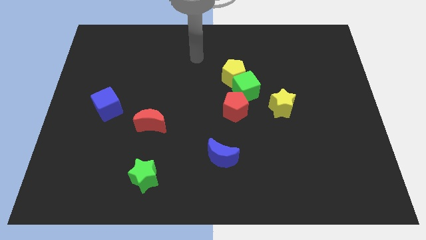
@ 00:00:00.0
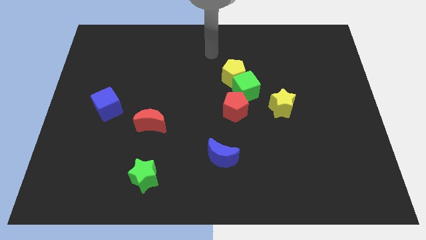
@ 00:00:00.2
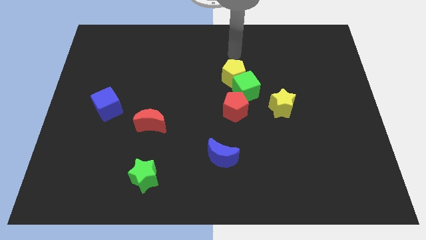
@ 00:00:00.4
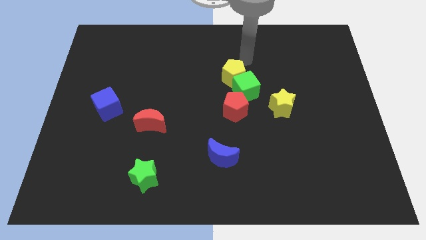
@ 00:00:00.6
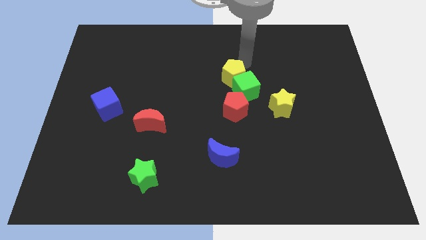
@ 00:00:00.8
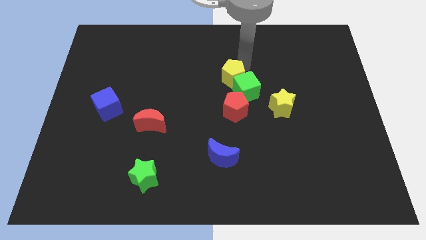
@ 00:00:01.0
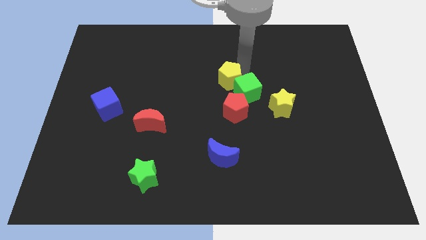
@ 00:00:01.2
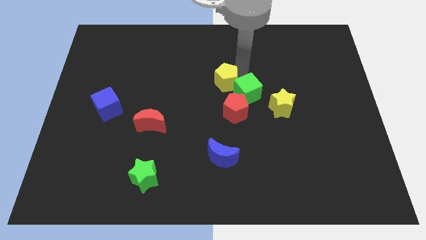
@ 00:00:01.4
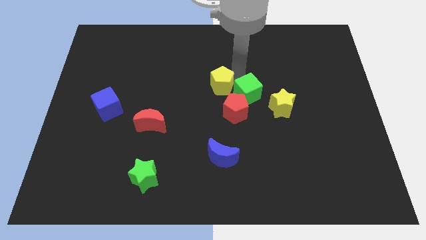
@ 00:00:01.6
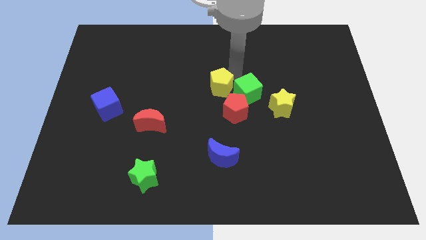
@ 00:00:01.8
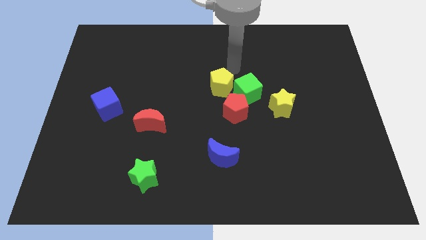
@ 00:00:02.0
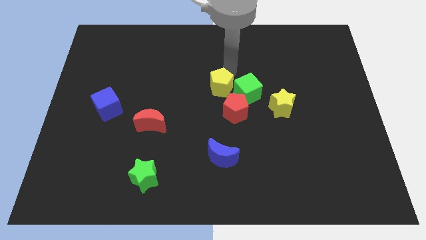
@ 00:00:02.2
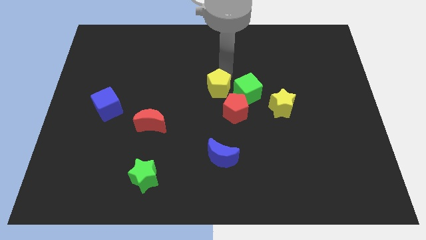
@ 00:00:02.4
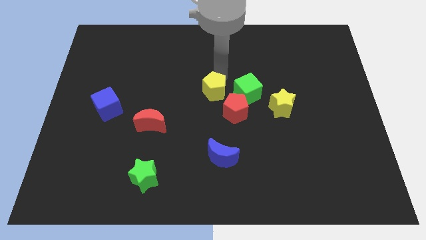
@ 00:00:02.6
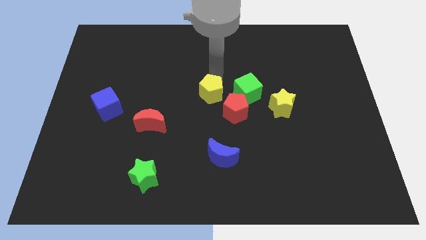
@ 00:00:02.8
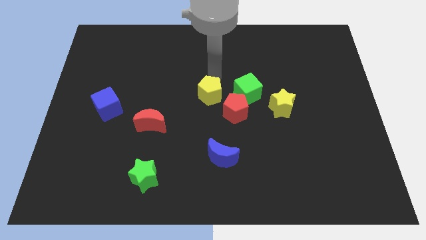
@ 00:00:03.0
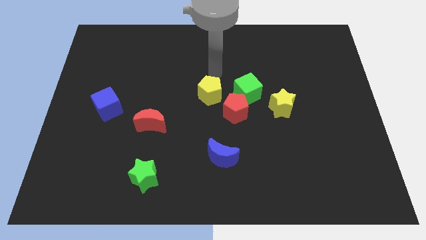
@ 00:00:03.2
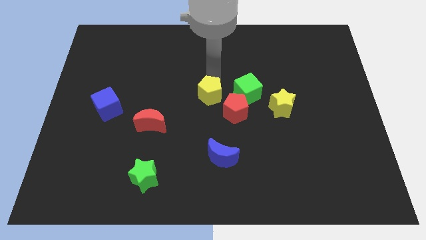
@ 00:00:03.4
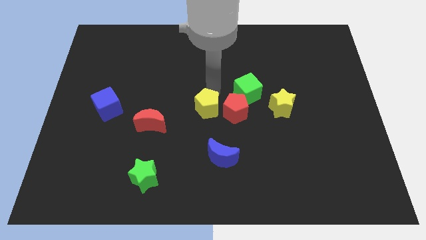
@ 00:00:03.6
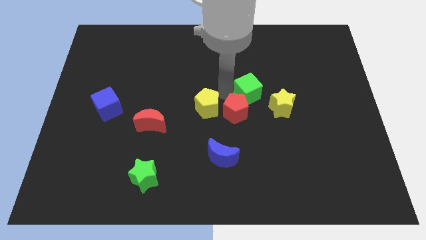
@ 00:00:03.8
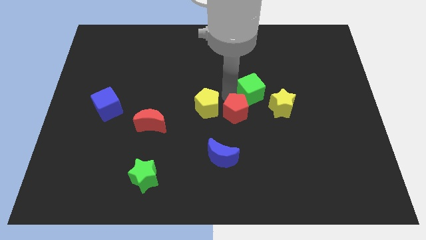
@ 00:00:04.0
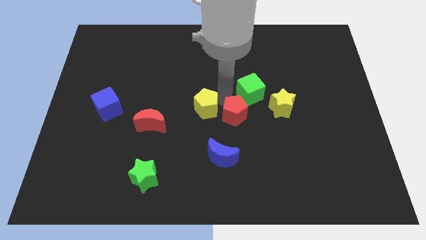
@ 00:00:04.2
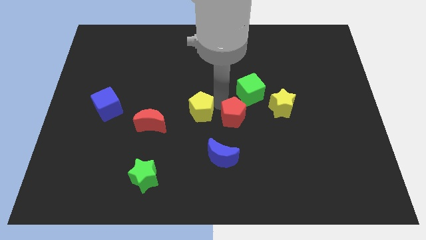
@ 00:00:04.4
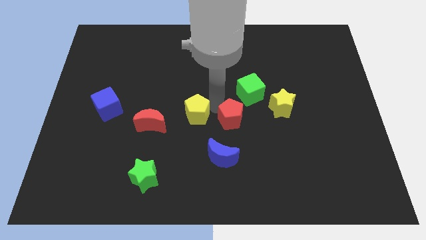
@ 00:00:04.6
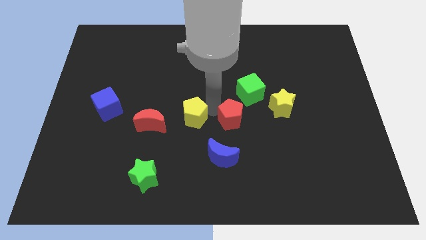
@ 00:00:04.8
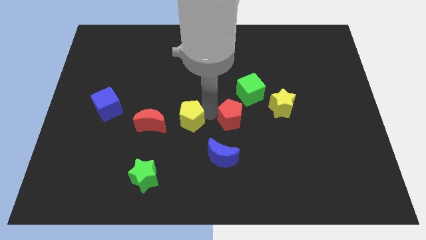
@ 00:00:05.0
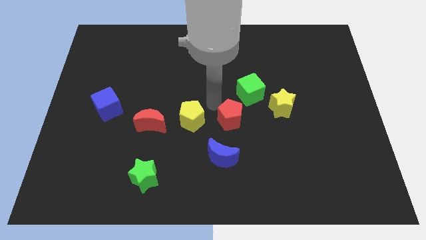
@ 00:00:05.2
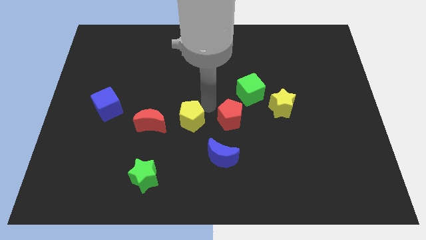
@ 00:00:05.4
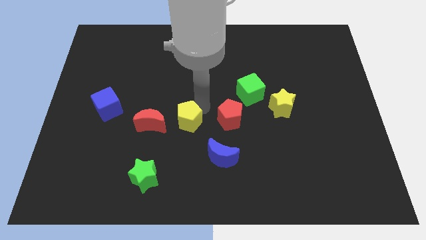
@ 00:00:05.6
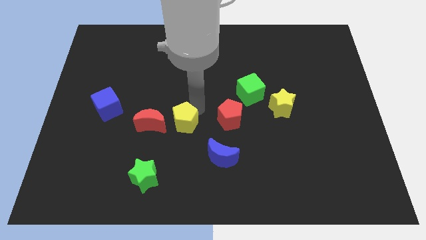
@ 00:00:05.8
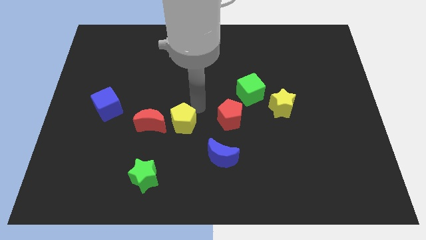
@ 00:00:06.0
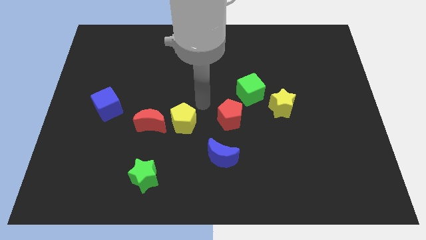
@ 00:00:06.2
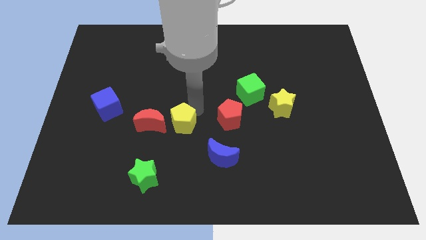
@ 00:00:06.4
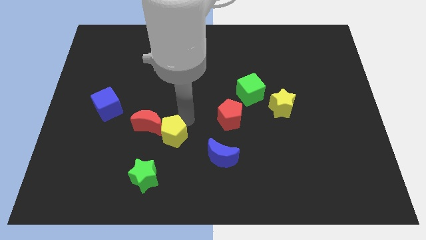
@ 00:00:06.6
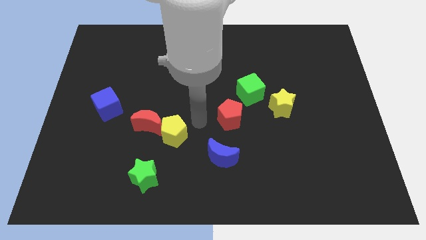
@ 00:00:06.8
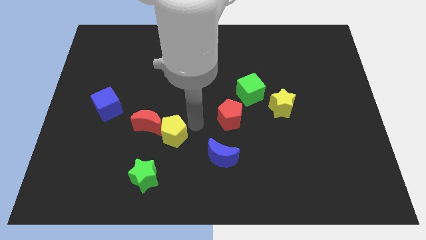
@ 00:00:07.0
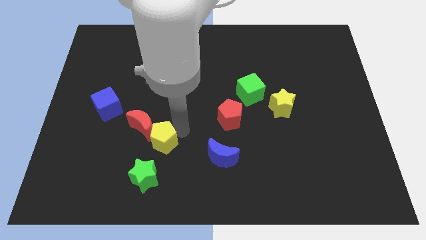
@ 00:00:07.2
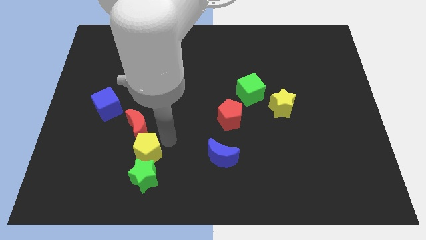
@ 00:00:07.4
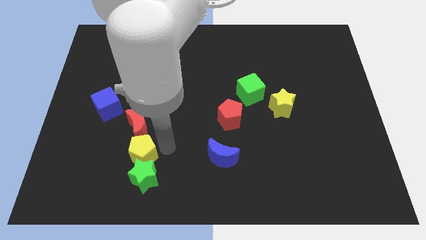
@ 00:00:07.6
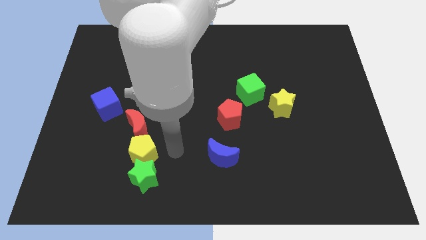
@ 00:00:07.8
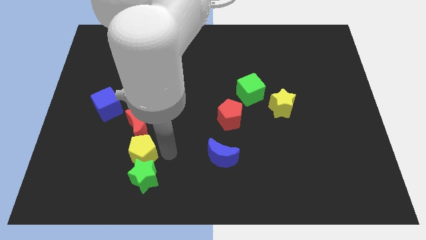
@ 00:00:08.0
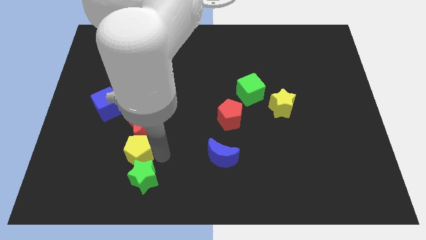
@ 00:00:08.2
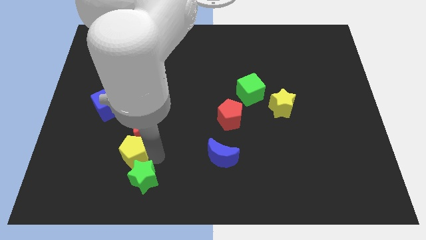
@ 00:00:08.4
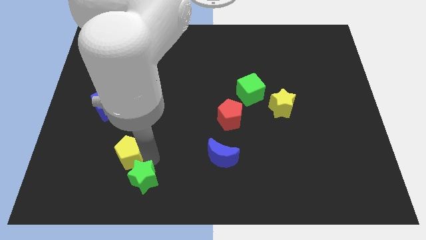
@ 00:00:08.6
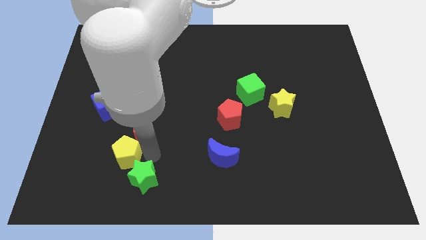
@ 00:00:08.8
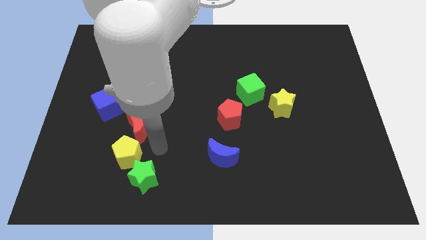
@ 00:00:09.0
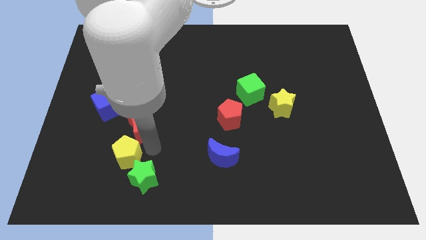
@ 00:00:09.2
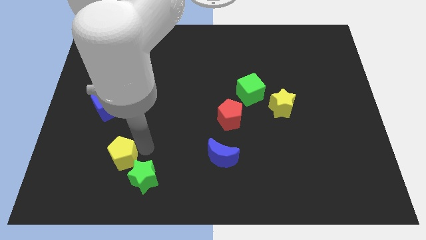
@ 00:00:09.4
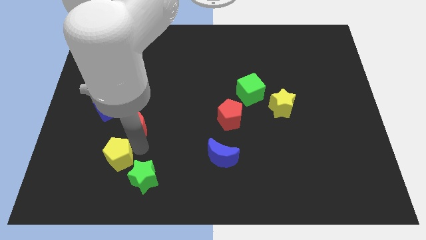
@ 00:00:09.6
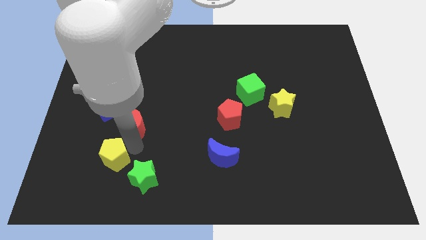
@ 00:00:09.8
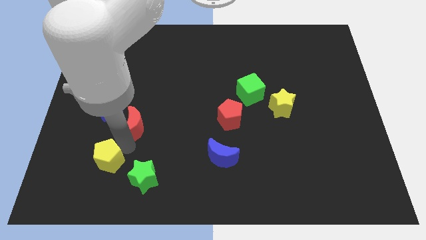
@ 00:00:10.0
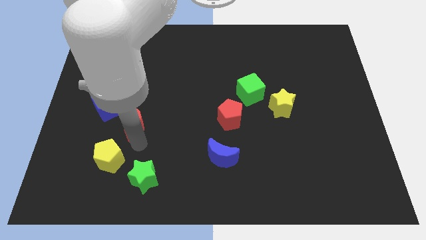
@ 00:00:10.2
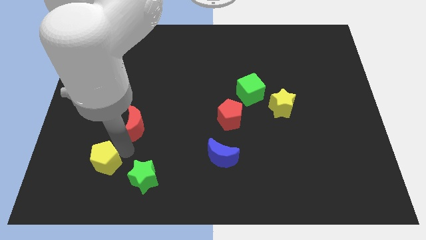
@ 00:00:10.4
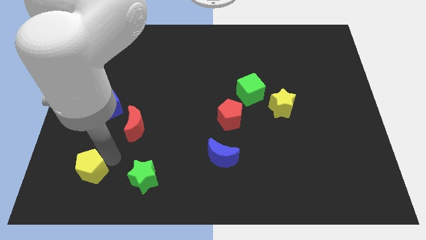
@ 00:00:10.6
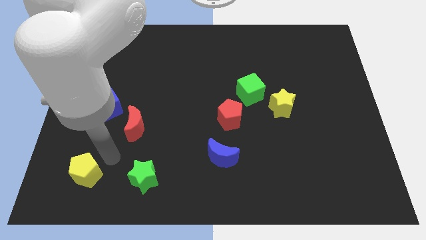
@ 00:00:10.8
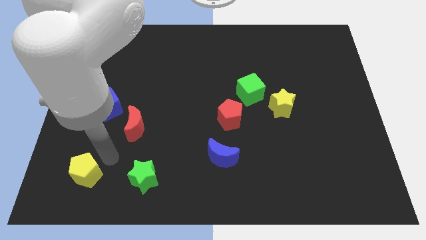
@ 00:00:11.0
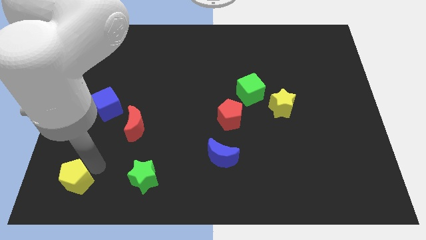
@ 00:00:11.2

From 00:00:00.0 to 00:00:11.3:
move the yellow pentagon to the lower left corner
